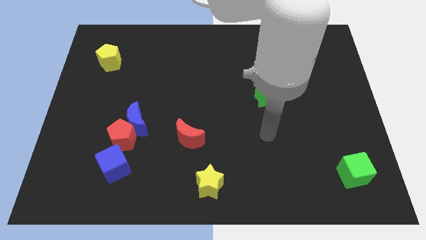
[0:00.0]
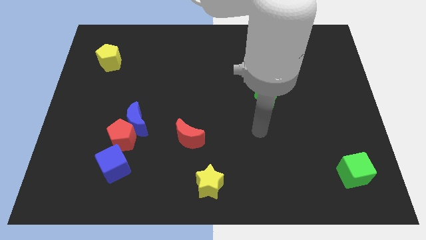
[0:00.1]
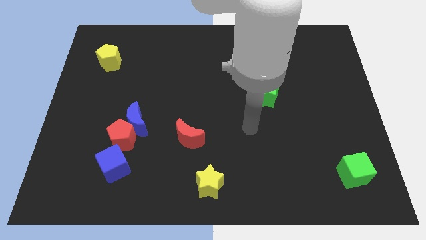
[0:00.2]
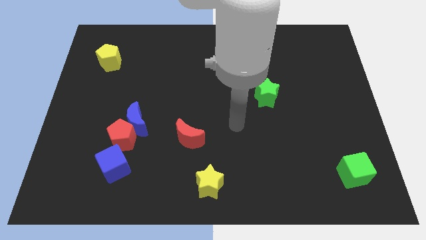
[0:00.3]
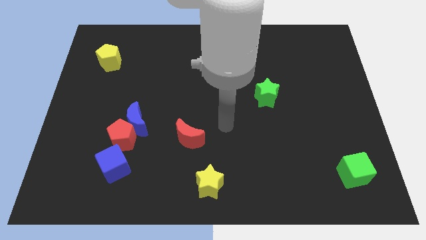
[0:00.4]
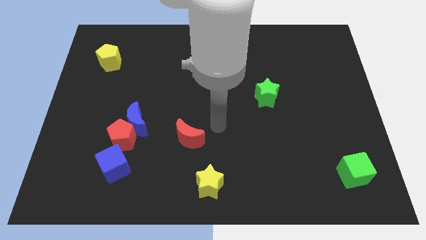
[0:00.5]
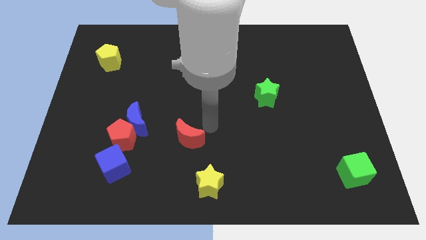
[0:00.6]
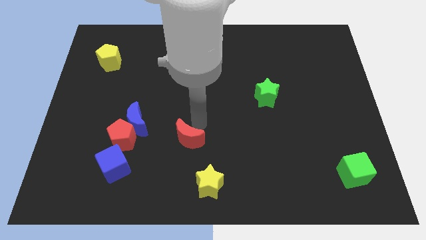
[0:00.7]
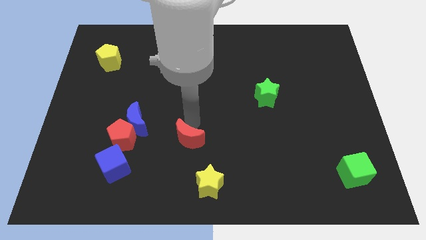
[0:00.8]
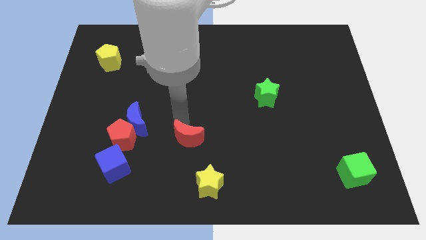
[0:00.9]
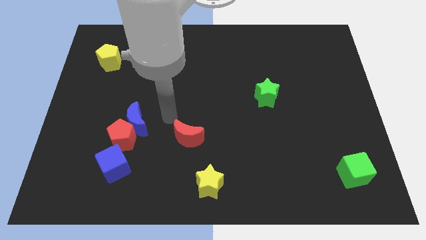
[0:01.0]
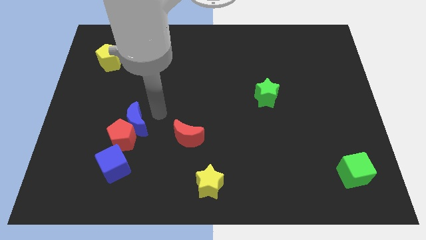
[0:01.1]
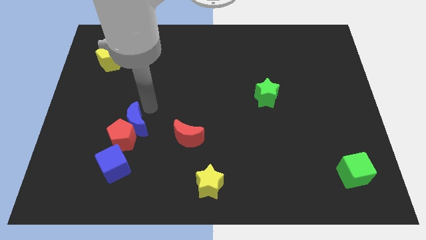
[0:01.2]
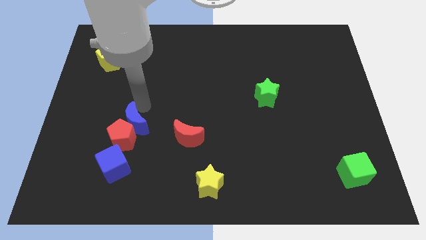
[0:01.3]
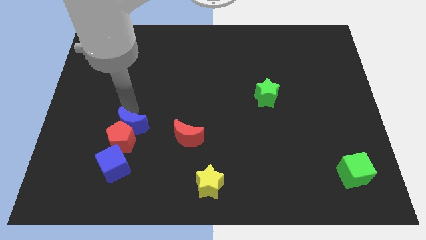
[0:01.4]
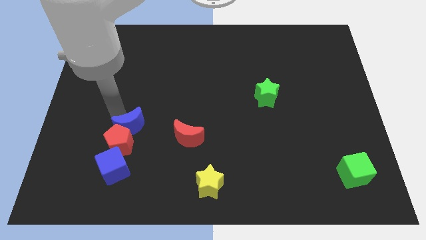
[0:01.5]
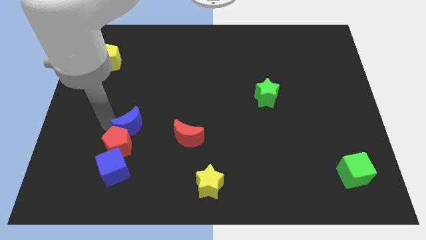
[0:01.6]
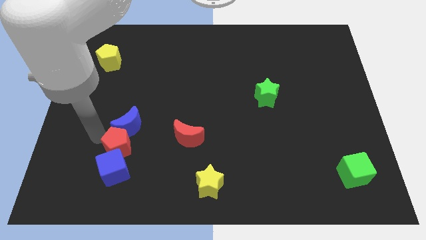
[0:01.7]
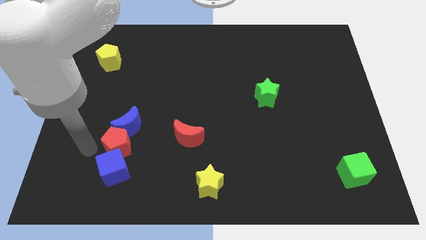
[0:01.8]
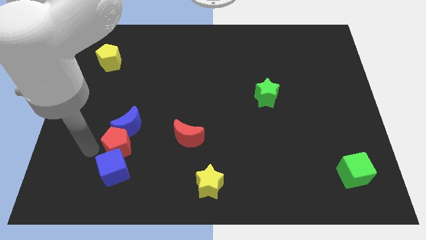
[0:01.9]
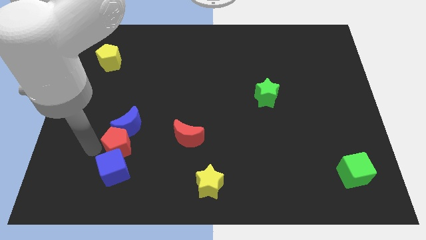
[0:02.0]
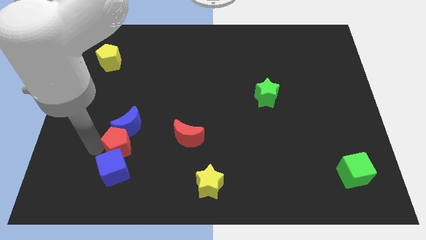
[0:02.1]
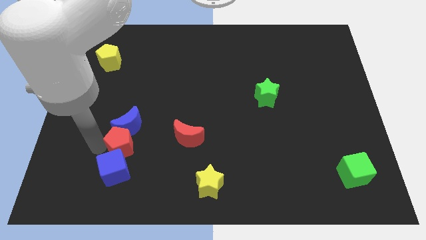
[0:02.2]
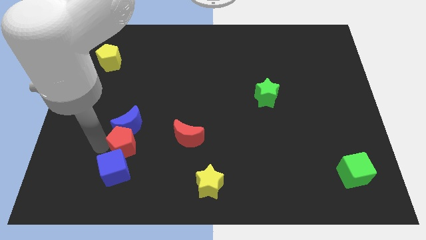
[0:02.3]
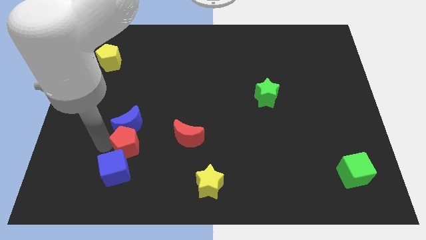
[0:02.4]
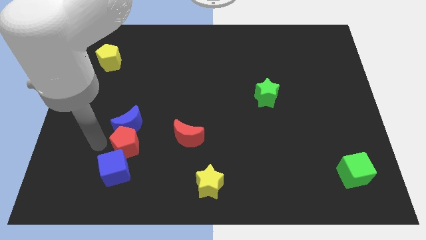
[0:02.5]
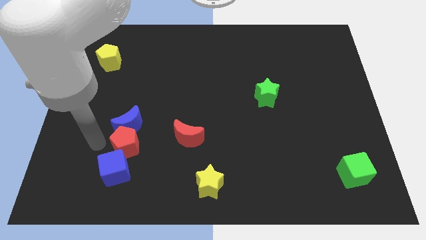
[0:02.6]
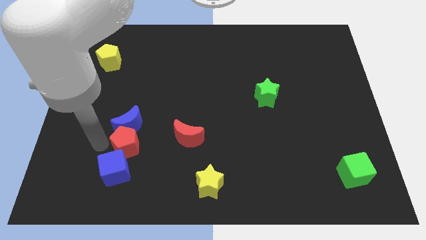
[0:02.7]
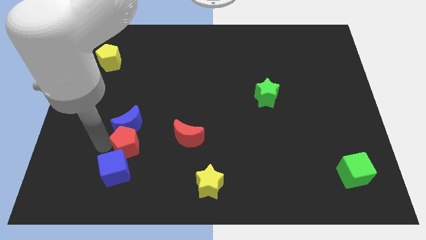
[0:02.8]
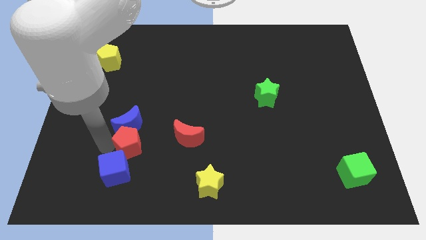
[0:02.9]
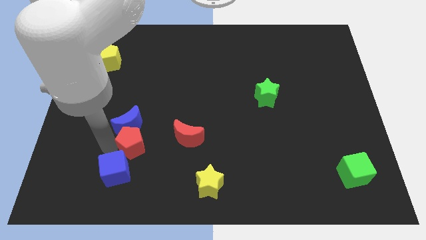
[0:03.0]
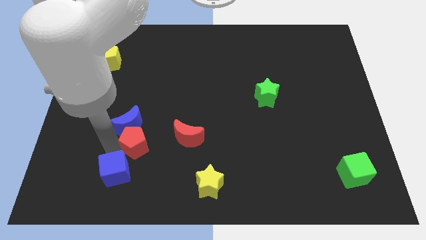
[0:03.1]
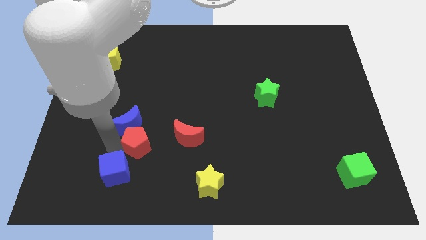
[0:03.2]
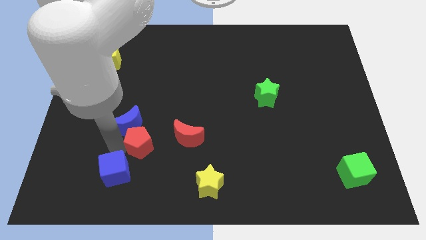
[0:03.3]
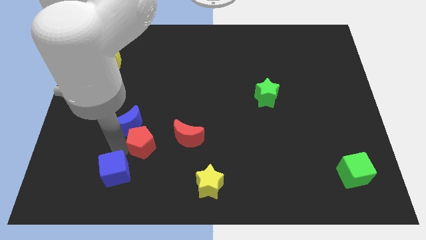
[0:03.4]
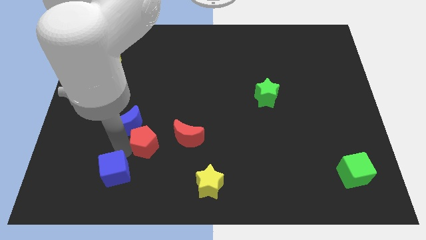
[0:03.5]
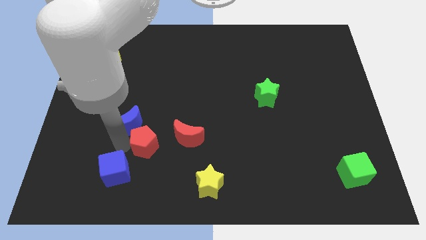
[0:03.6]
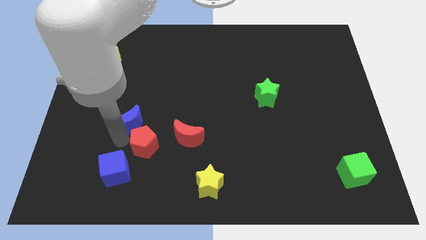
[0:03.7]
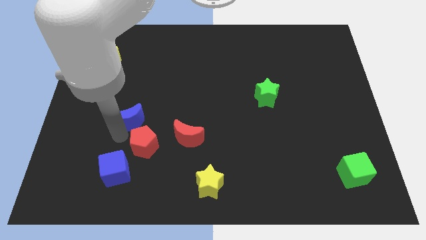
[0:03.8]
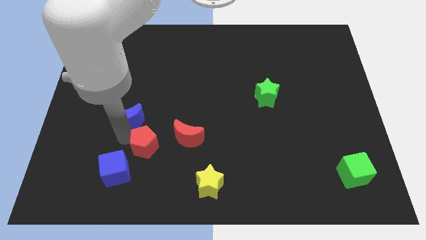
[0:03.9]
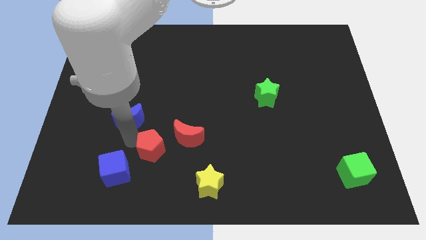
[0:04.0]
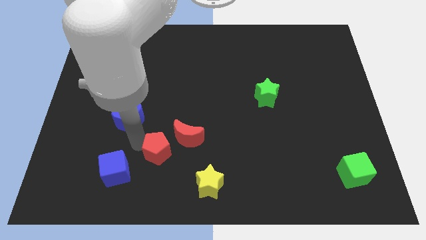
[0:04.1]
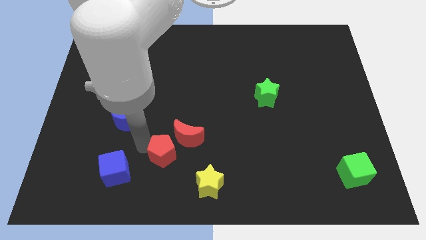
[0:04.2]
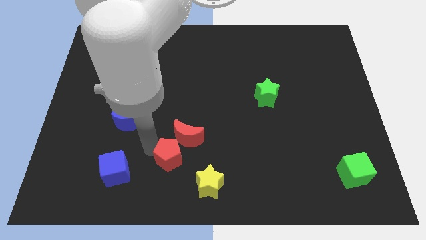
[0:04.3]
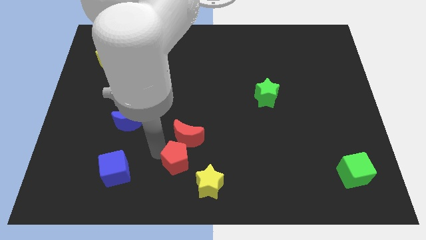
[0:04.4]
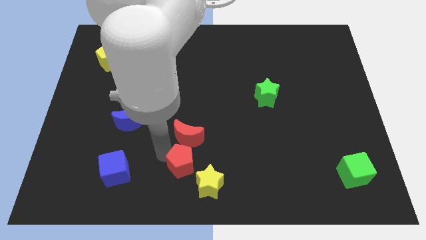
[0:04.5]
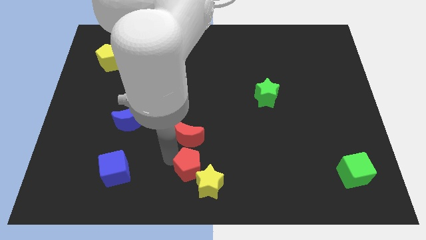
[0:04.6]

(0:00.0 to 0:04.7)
put the red pentagon to the yellow star

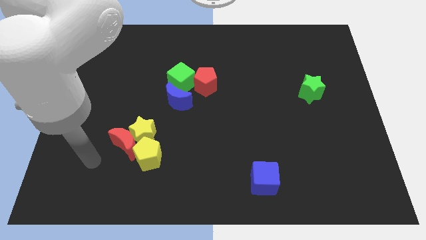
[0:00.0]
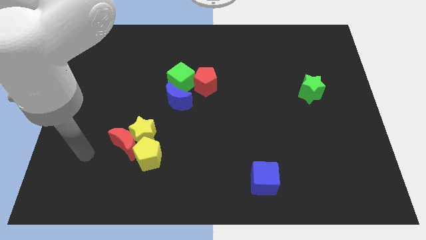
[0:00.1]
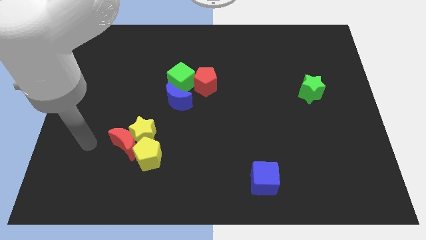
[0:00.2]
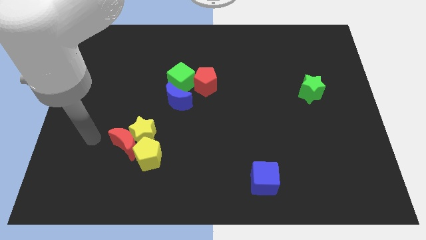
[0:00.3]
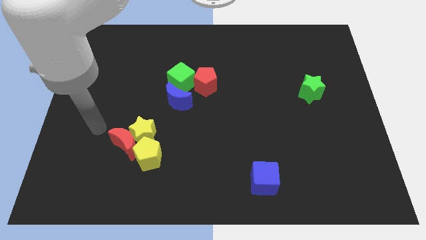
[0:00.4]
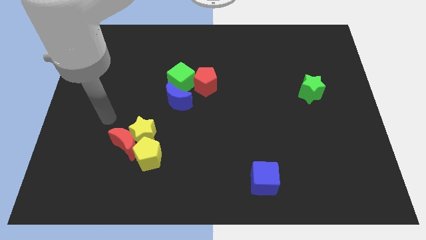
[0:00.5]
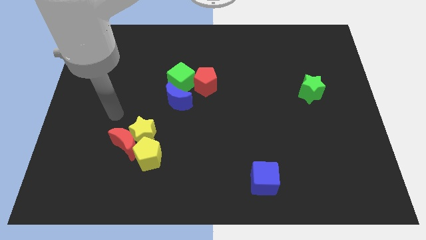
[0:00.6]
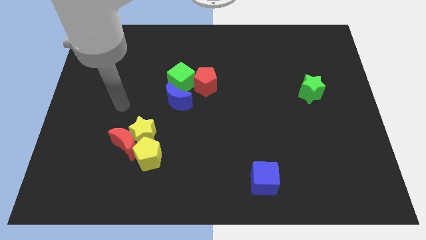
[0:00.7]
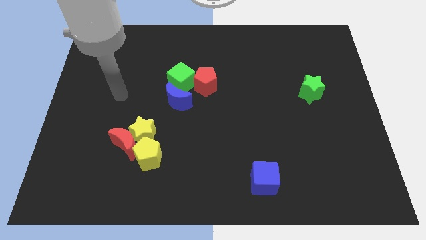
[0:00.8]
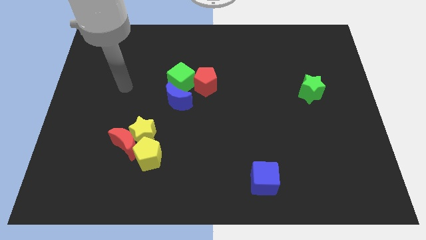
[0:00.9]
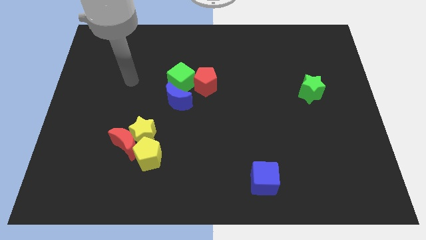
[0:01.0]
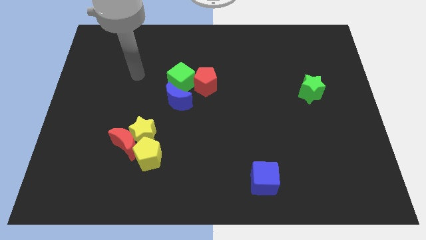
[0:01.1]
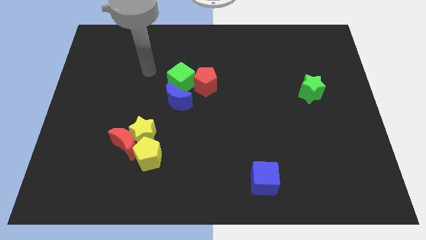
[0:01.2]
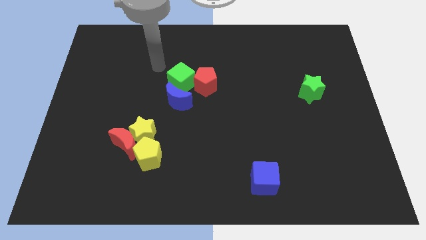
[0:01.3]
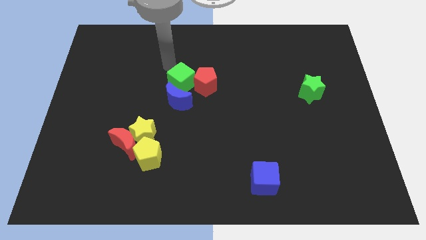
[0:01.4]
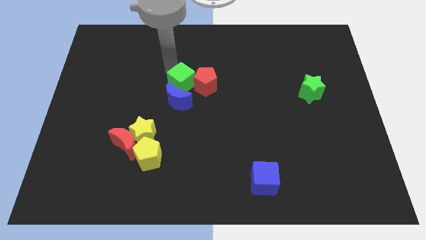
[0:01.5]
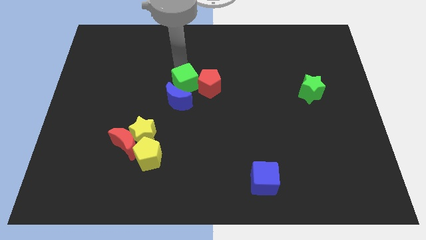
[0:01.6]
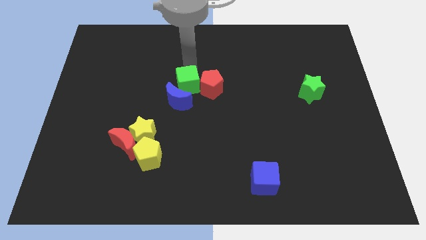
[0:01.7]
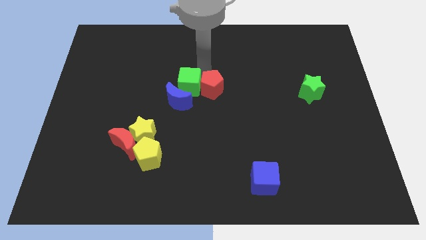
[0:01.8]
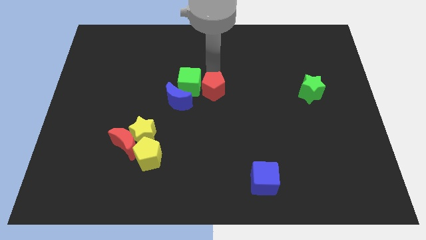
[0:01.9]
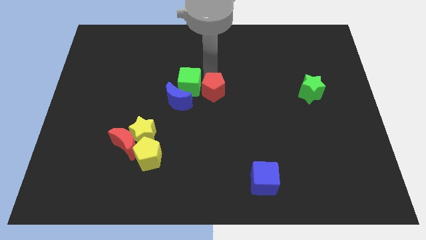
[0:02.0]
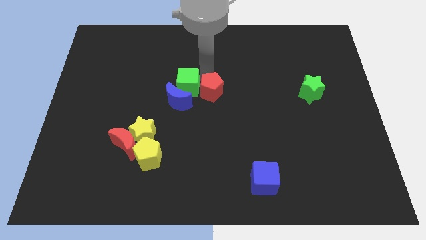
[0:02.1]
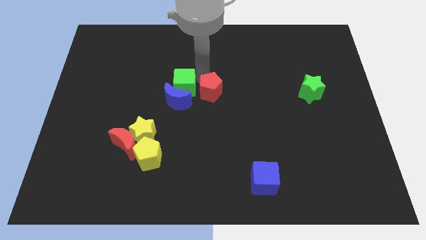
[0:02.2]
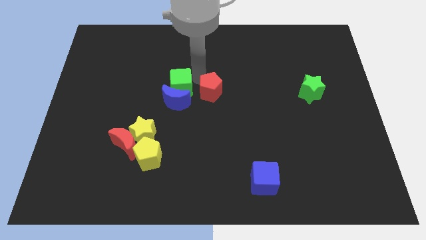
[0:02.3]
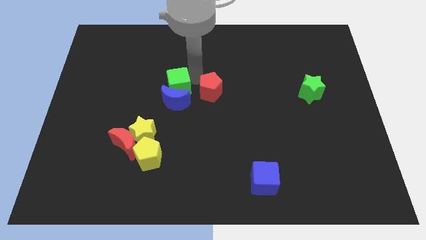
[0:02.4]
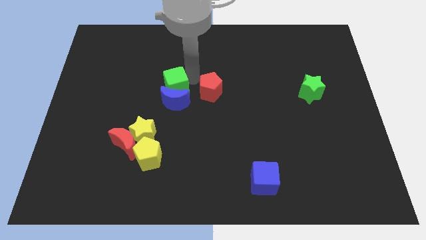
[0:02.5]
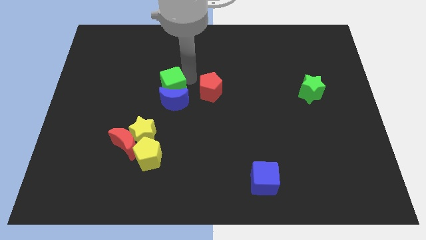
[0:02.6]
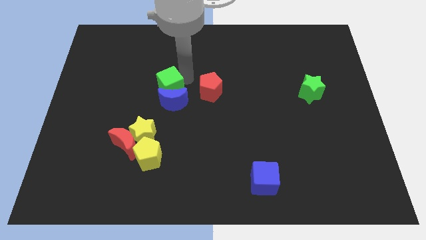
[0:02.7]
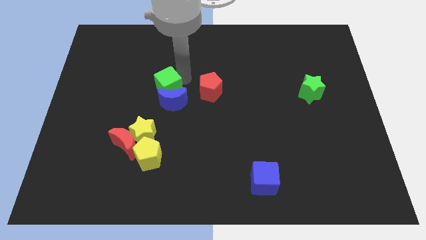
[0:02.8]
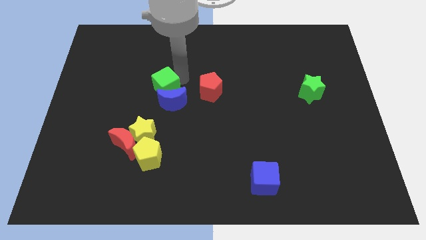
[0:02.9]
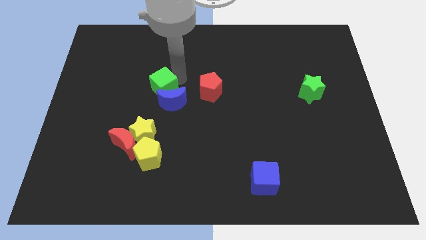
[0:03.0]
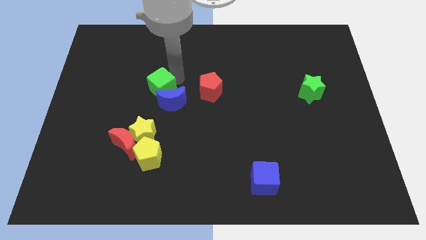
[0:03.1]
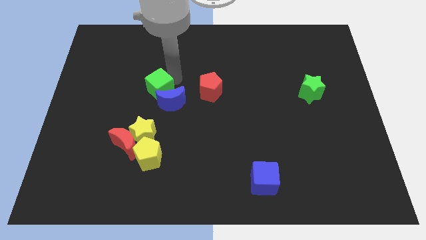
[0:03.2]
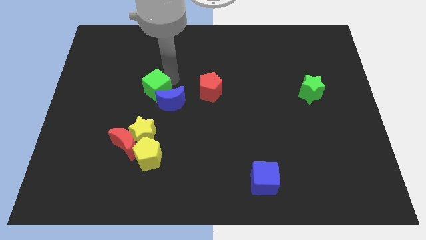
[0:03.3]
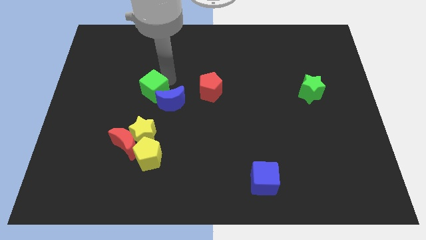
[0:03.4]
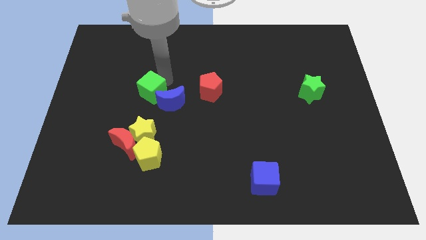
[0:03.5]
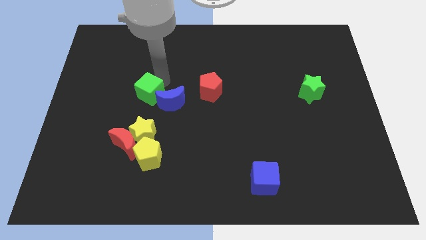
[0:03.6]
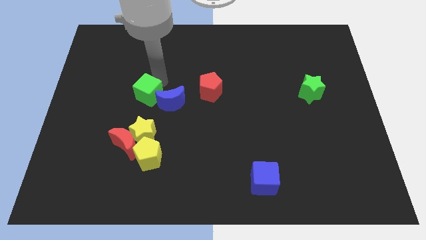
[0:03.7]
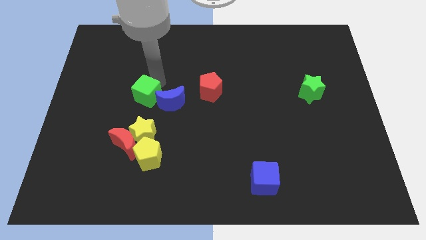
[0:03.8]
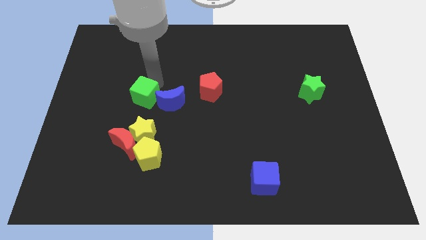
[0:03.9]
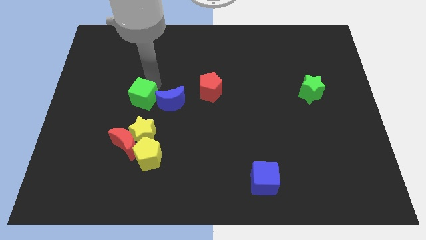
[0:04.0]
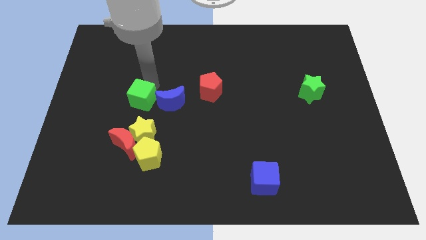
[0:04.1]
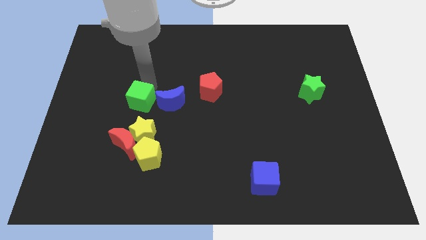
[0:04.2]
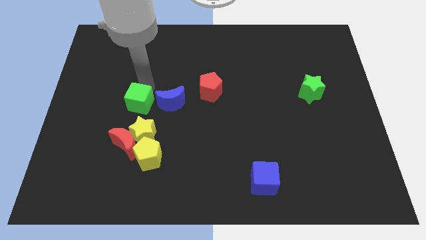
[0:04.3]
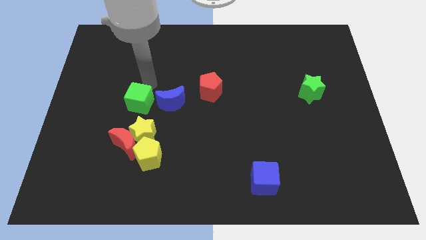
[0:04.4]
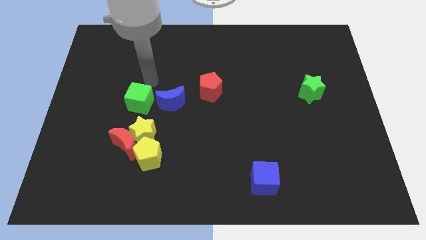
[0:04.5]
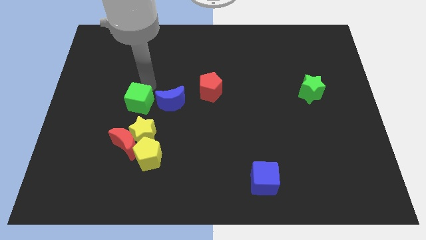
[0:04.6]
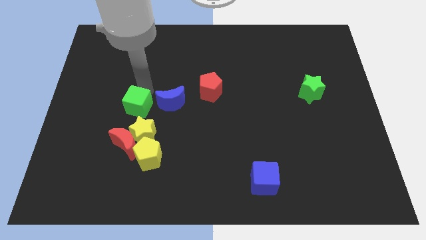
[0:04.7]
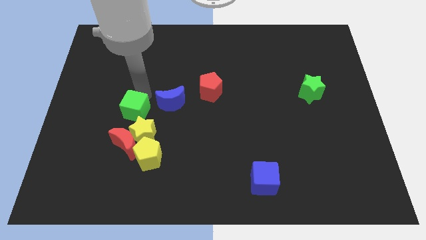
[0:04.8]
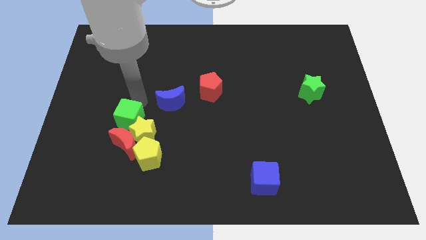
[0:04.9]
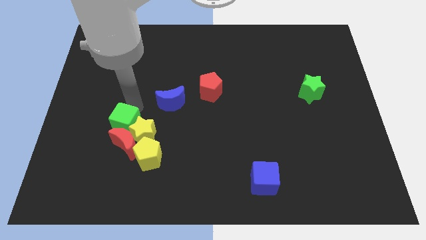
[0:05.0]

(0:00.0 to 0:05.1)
slide the green cube close to the red moon
